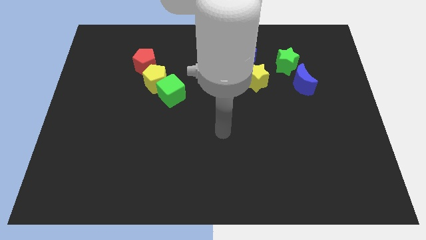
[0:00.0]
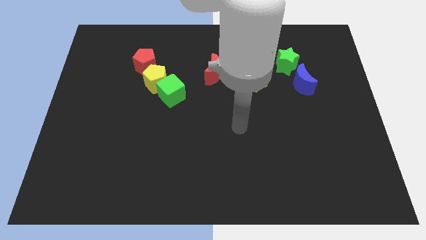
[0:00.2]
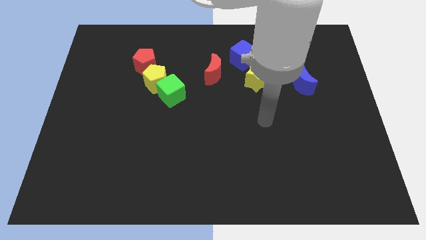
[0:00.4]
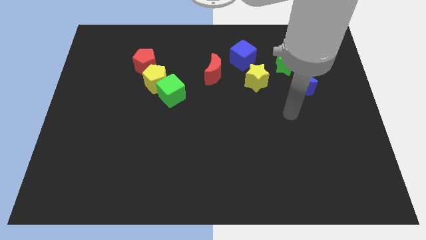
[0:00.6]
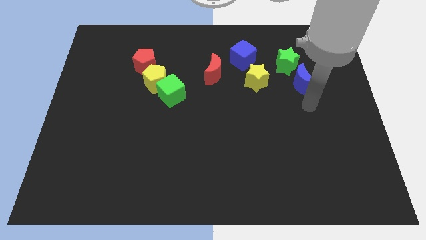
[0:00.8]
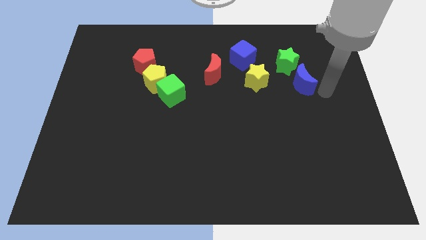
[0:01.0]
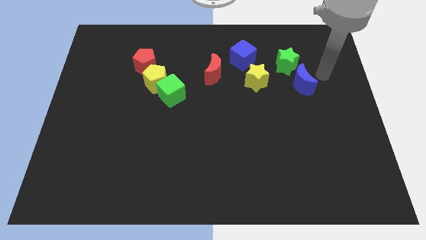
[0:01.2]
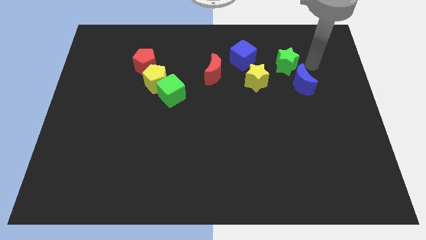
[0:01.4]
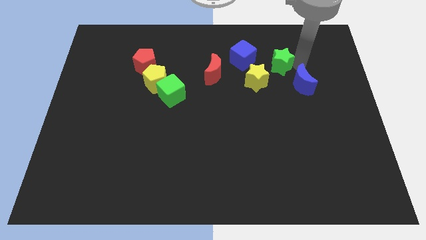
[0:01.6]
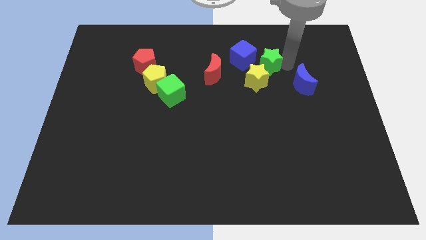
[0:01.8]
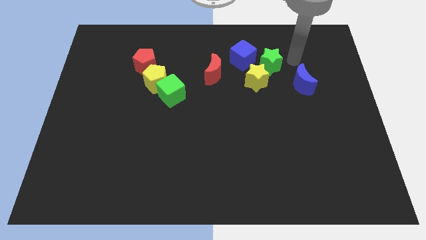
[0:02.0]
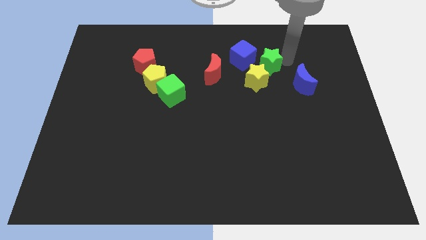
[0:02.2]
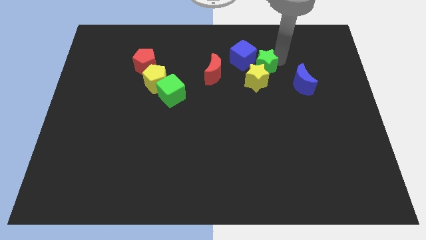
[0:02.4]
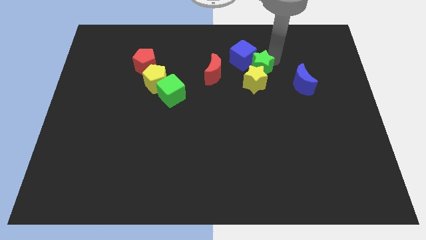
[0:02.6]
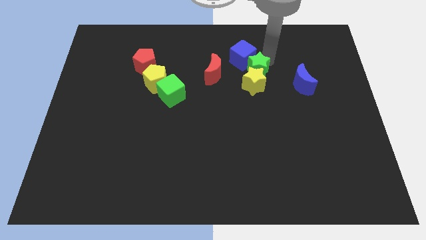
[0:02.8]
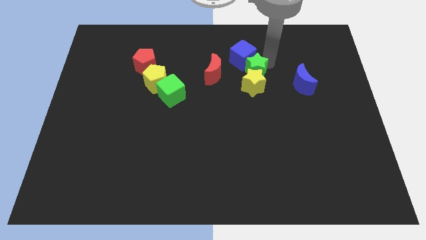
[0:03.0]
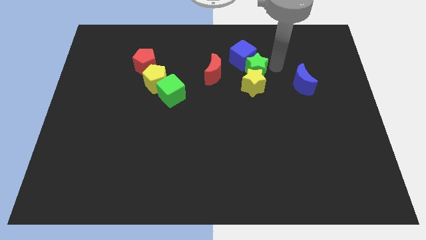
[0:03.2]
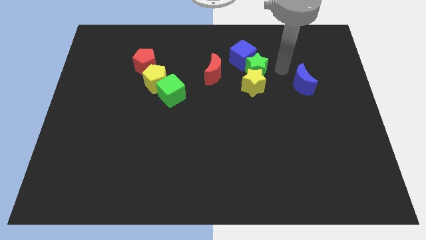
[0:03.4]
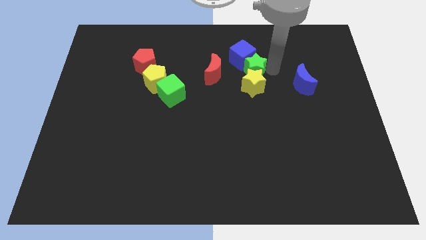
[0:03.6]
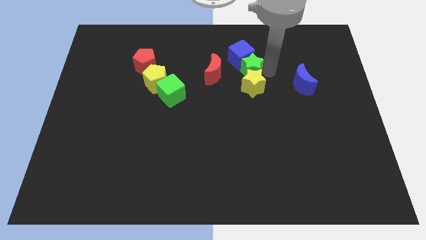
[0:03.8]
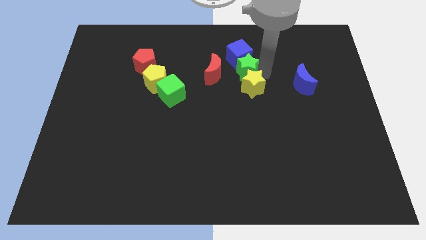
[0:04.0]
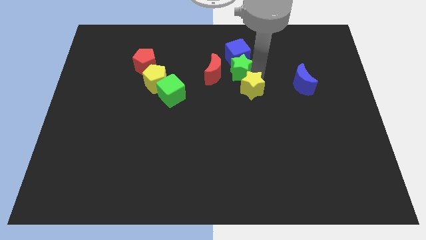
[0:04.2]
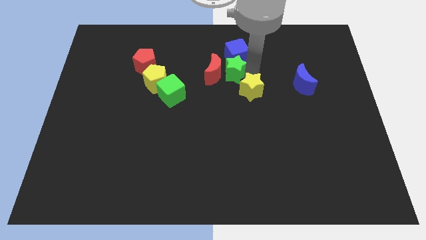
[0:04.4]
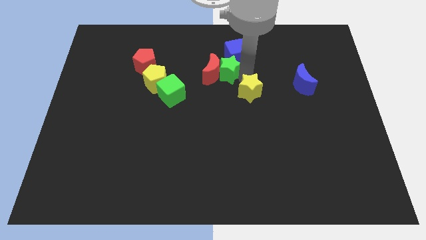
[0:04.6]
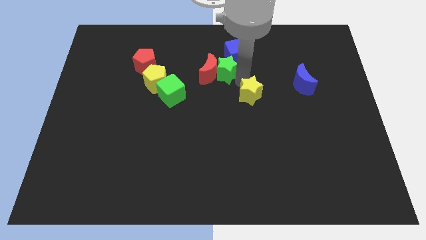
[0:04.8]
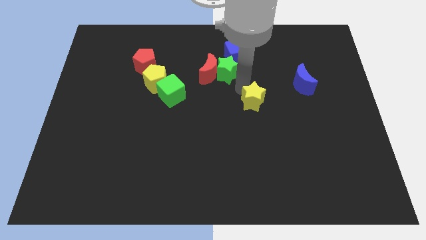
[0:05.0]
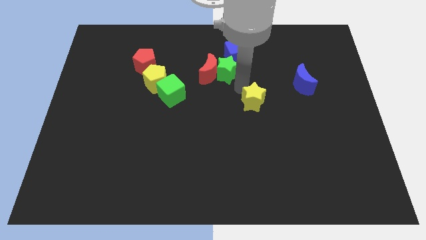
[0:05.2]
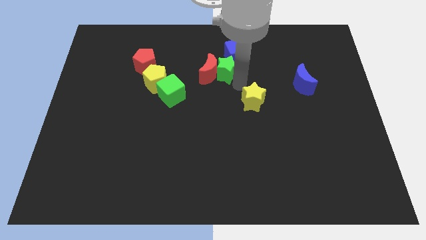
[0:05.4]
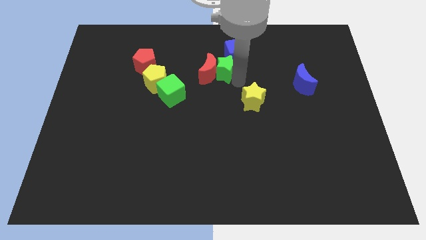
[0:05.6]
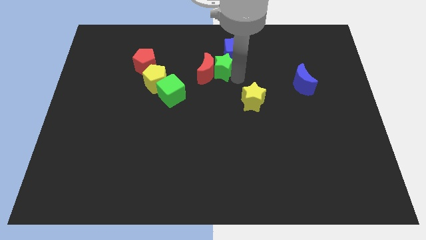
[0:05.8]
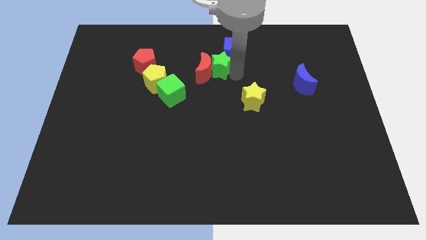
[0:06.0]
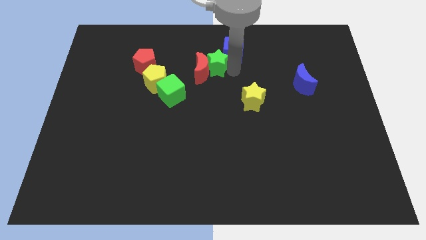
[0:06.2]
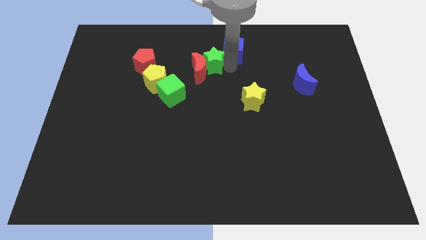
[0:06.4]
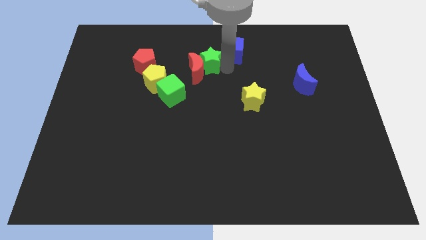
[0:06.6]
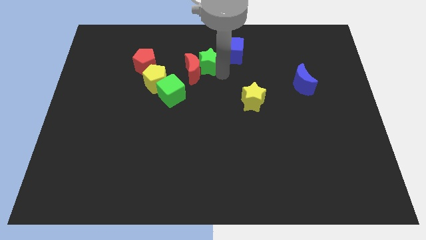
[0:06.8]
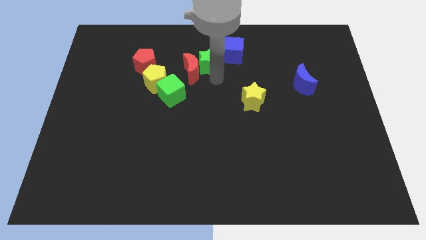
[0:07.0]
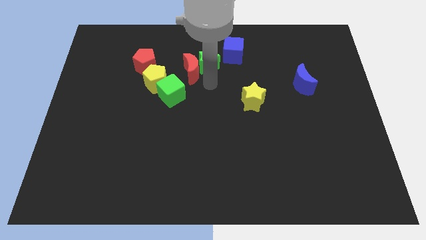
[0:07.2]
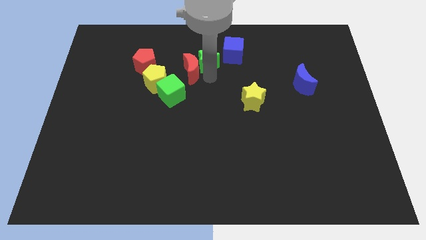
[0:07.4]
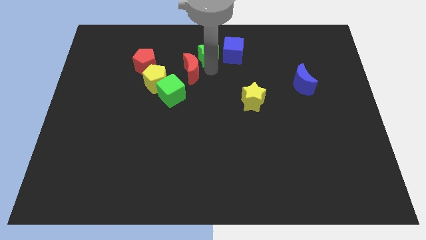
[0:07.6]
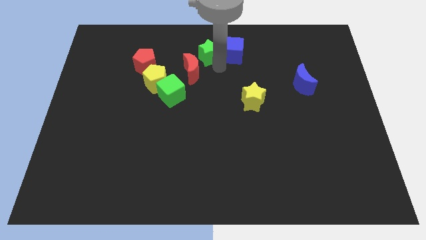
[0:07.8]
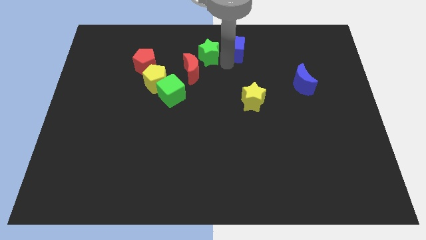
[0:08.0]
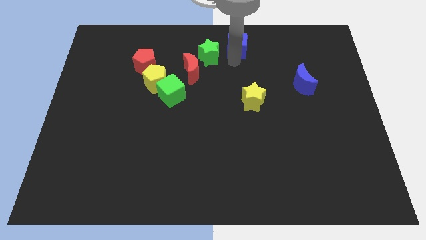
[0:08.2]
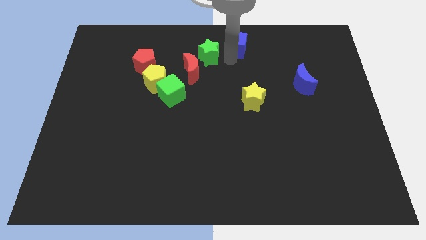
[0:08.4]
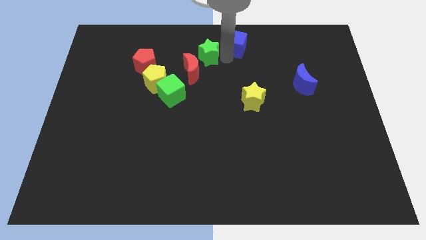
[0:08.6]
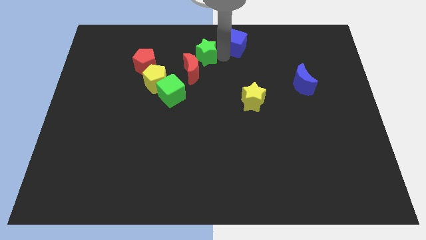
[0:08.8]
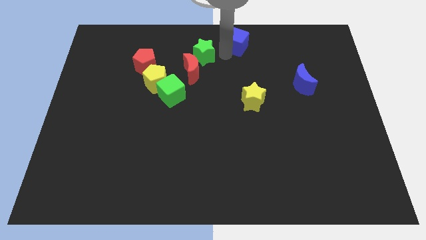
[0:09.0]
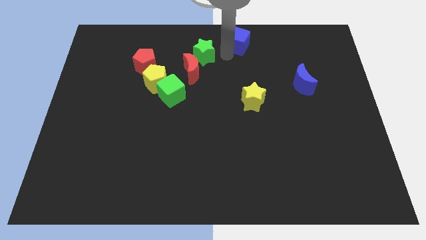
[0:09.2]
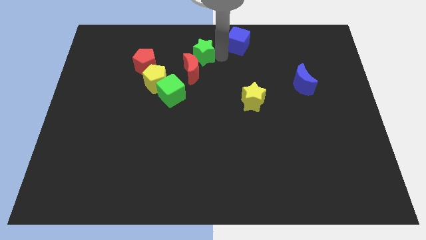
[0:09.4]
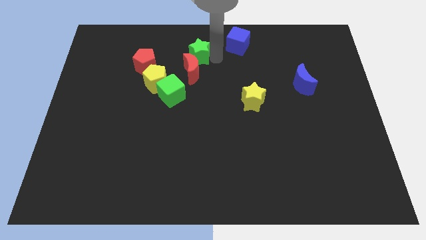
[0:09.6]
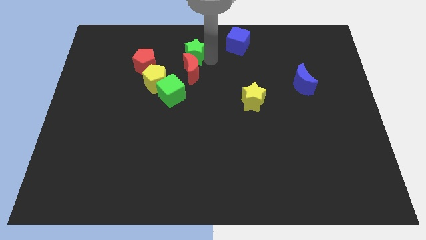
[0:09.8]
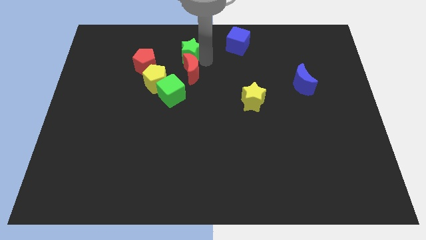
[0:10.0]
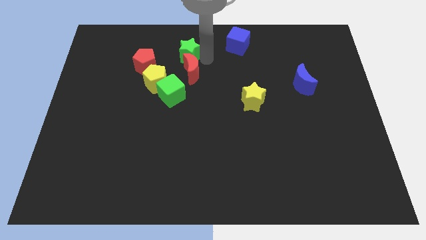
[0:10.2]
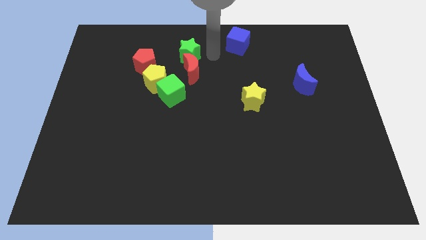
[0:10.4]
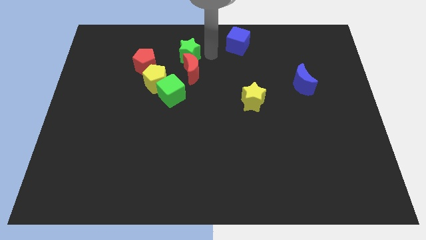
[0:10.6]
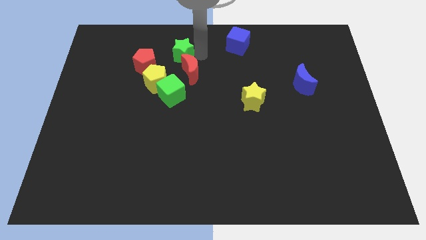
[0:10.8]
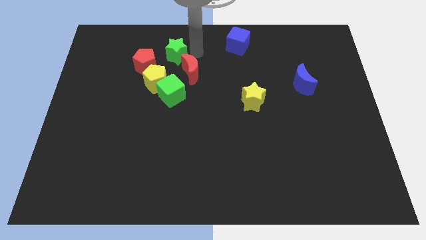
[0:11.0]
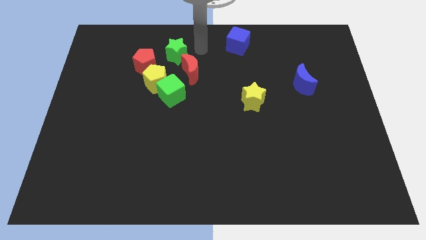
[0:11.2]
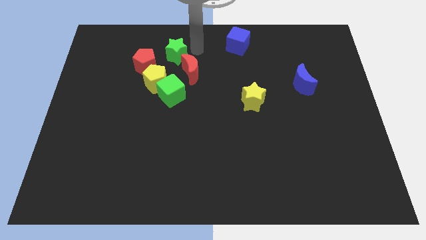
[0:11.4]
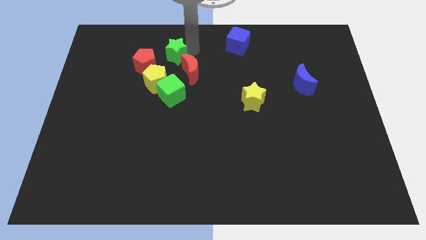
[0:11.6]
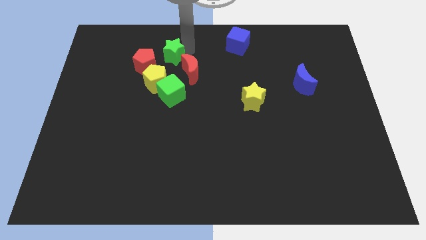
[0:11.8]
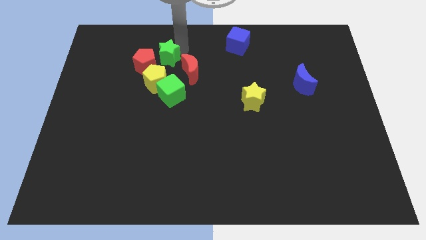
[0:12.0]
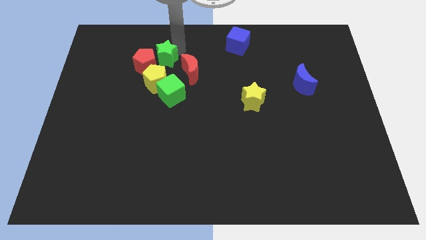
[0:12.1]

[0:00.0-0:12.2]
push the green star close to the red pentagon

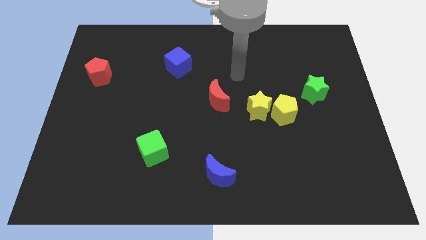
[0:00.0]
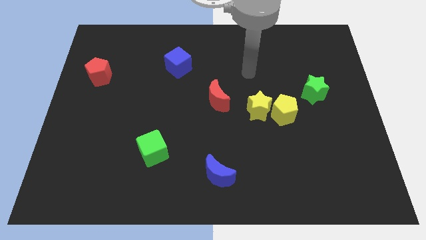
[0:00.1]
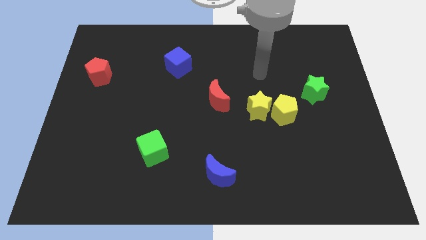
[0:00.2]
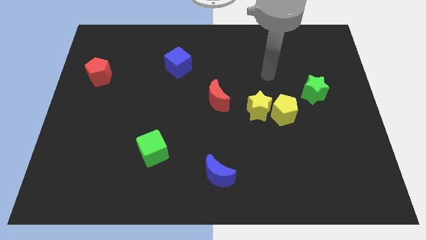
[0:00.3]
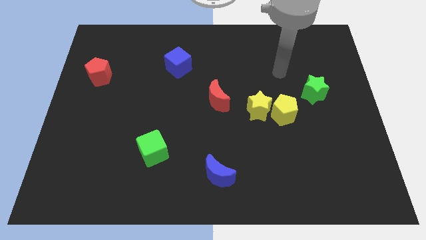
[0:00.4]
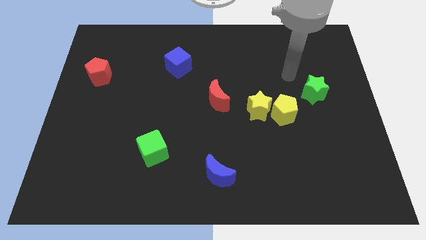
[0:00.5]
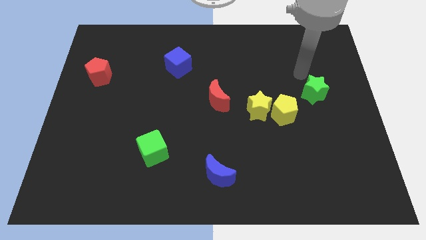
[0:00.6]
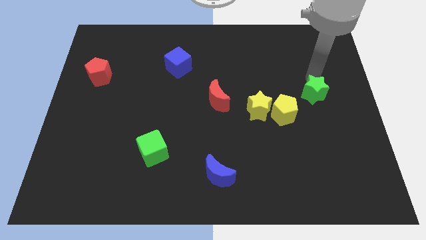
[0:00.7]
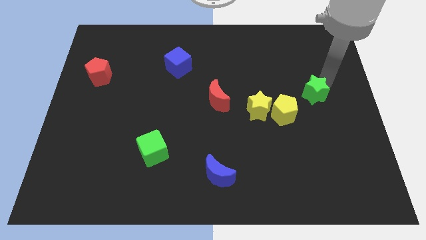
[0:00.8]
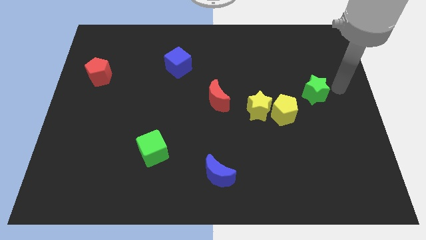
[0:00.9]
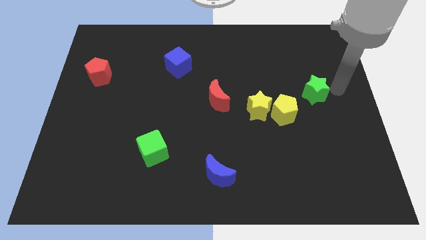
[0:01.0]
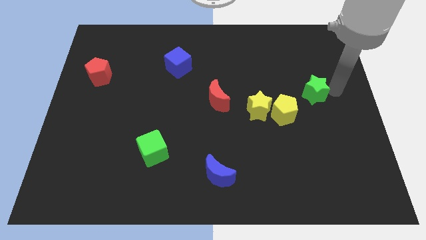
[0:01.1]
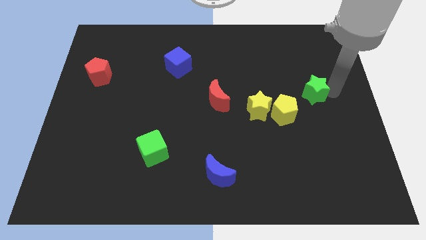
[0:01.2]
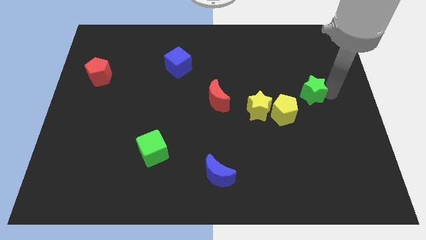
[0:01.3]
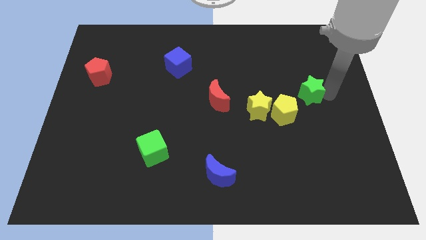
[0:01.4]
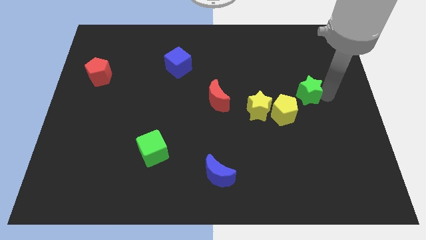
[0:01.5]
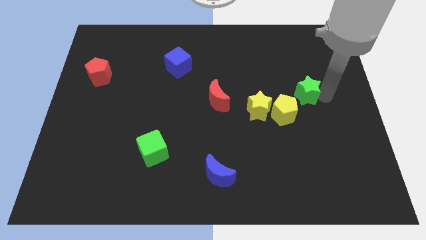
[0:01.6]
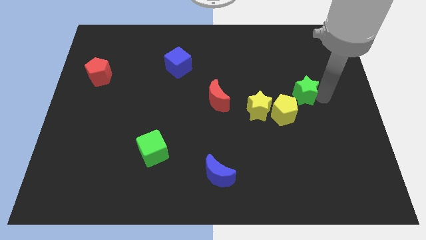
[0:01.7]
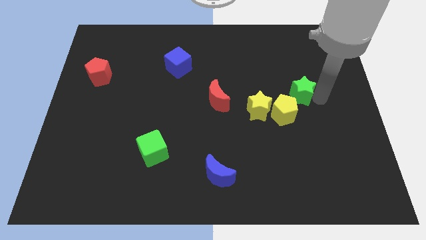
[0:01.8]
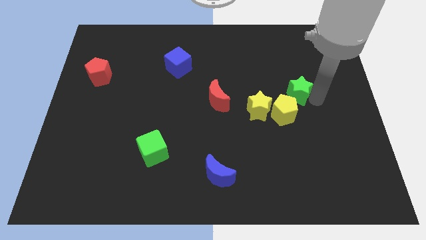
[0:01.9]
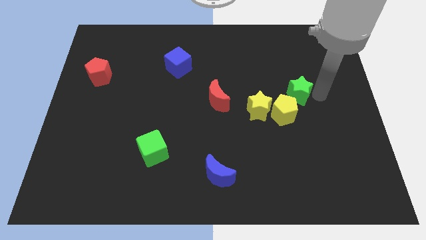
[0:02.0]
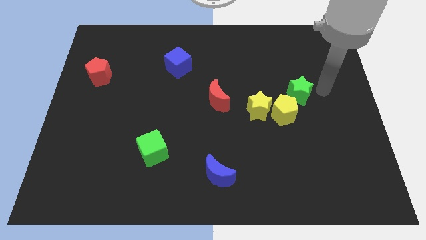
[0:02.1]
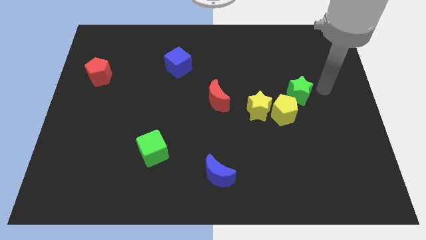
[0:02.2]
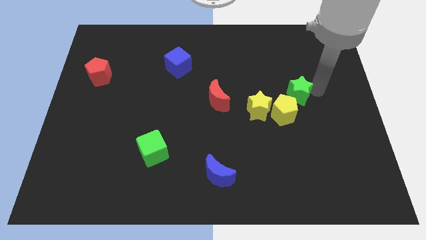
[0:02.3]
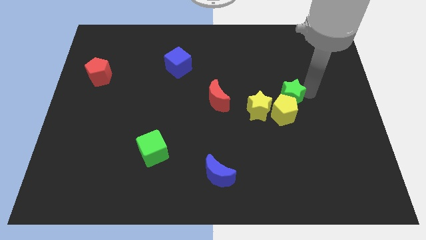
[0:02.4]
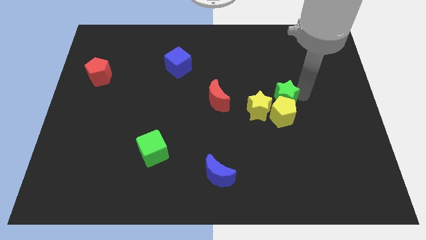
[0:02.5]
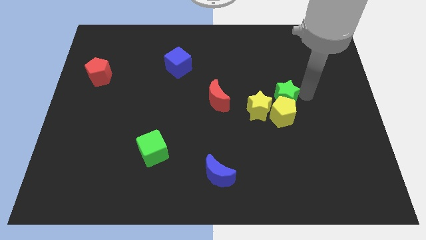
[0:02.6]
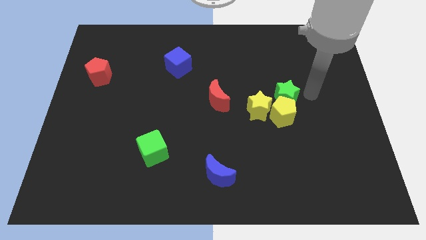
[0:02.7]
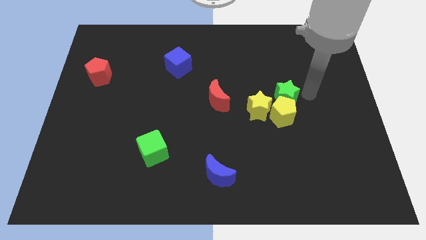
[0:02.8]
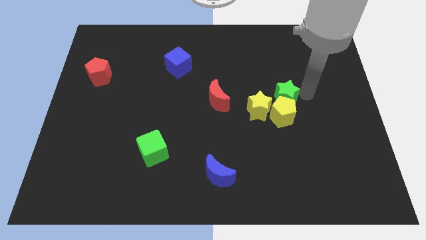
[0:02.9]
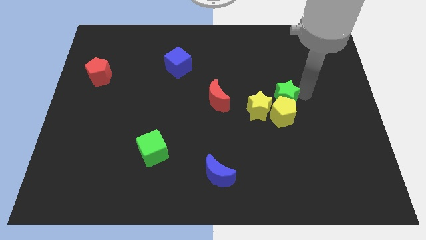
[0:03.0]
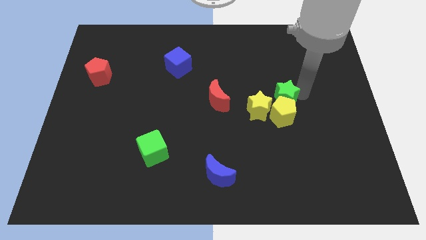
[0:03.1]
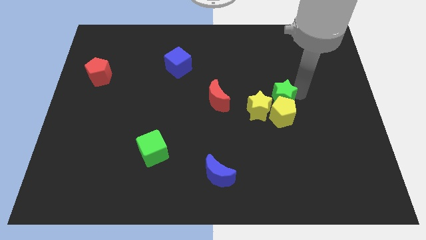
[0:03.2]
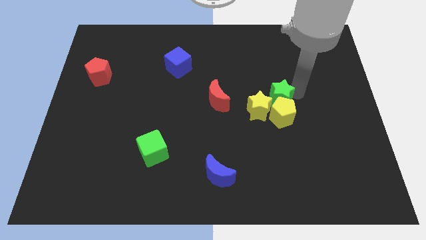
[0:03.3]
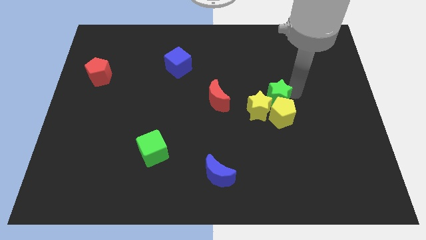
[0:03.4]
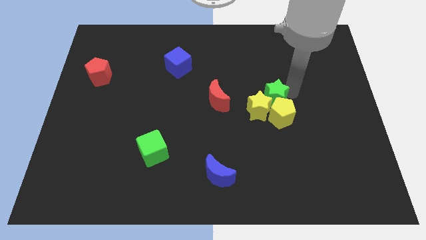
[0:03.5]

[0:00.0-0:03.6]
move the green star to the yellow star
